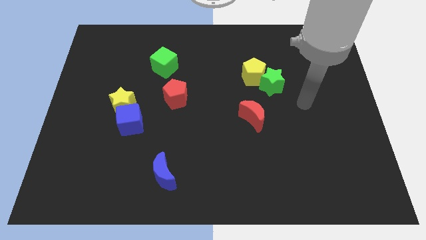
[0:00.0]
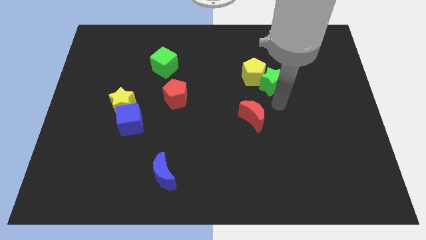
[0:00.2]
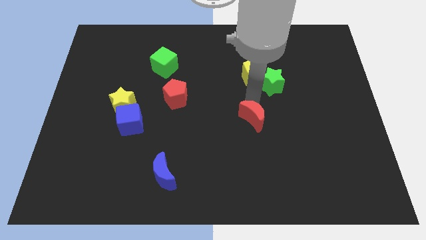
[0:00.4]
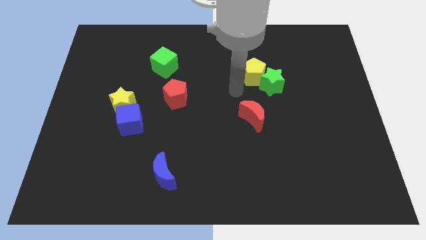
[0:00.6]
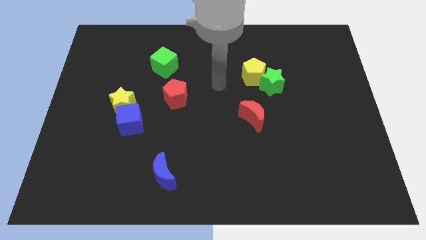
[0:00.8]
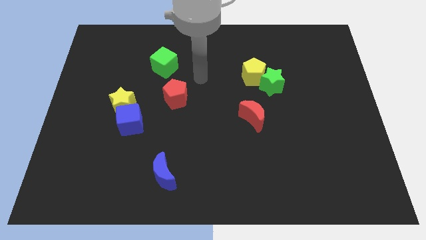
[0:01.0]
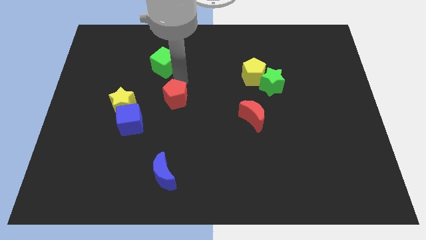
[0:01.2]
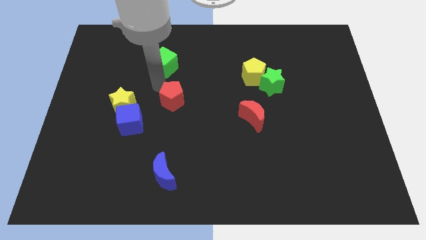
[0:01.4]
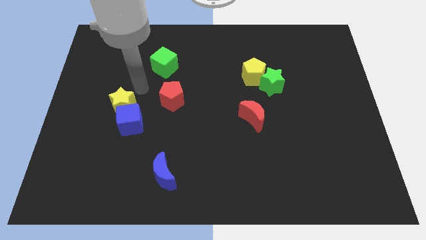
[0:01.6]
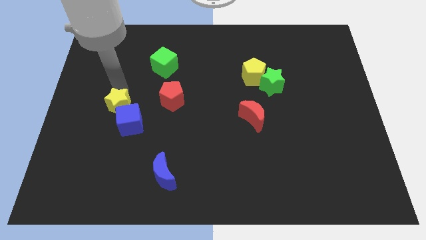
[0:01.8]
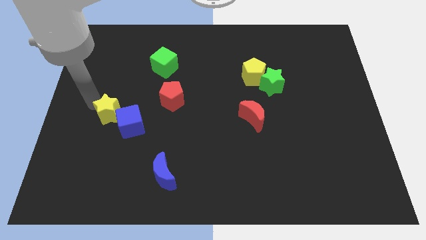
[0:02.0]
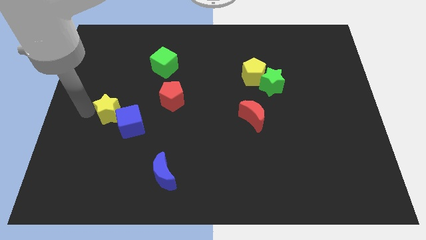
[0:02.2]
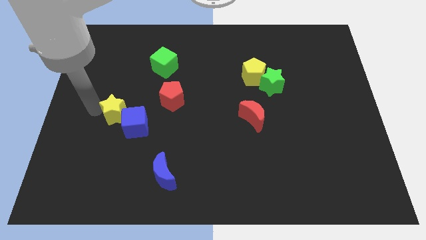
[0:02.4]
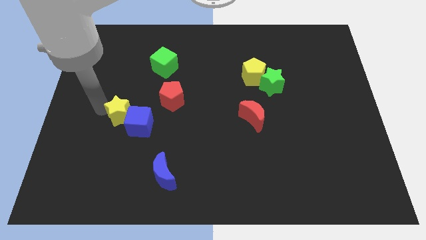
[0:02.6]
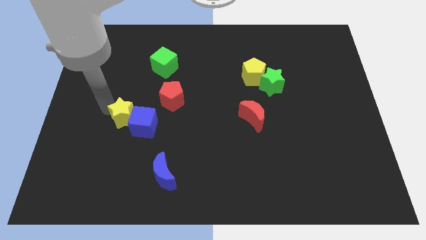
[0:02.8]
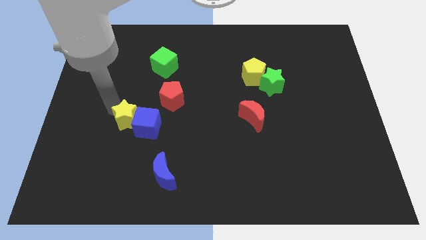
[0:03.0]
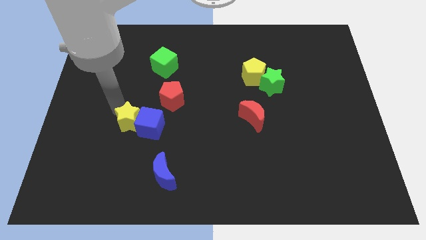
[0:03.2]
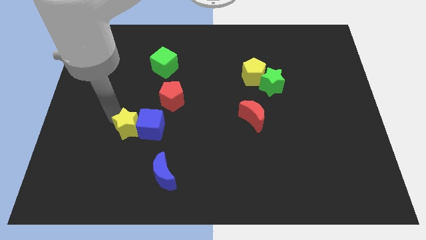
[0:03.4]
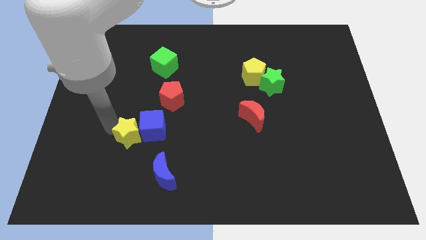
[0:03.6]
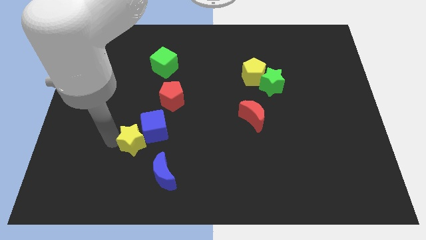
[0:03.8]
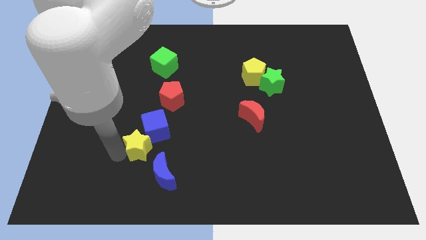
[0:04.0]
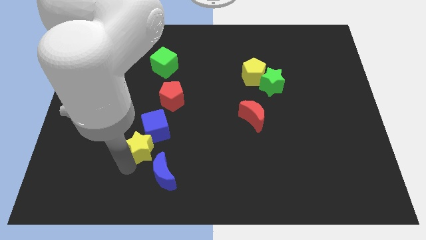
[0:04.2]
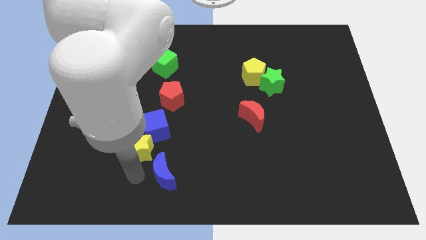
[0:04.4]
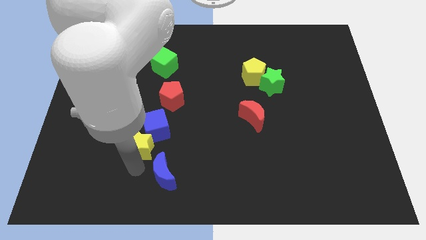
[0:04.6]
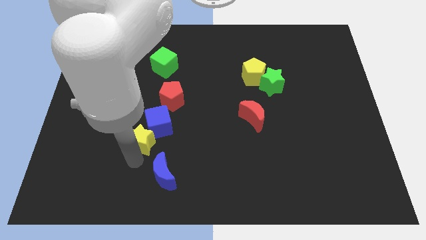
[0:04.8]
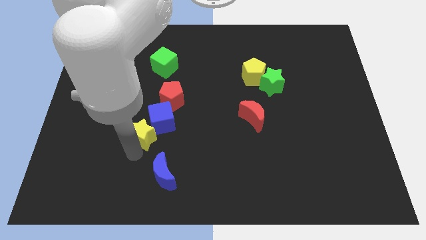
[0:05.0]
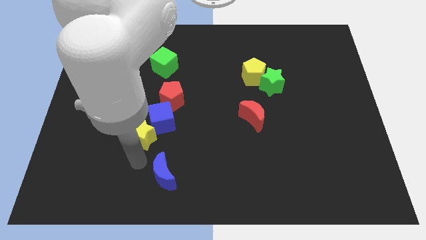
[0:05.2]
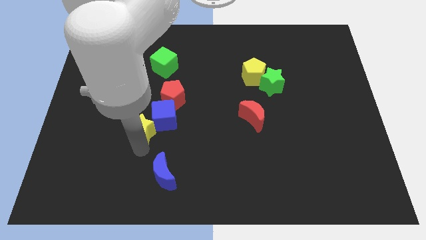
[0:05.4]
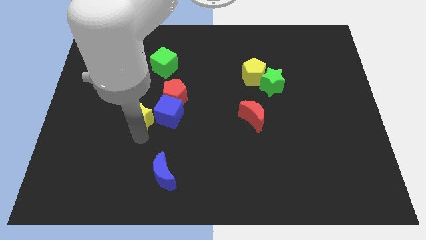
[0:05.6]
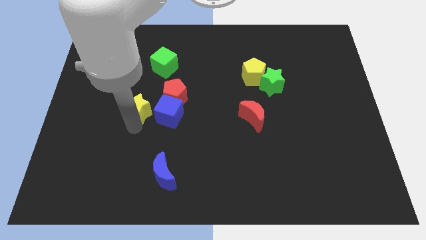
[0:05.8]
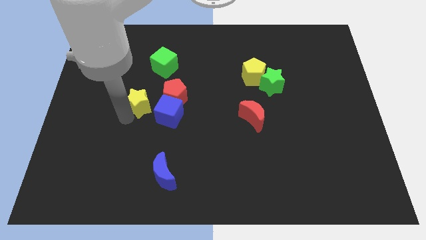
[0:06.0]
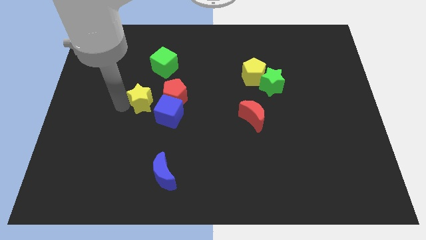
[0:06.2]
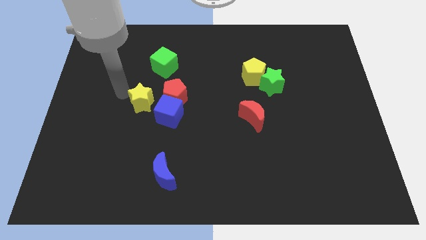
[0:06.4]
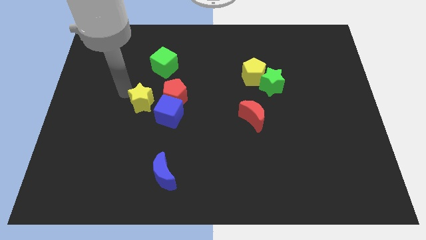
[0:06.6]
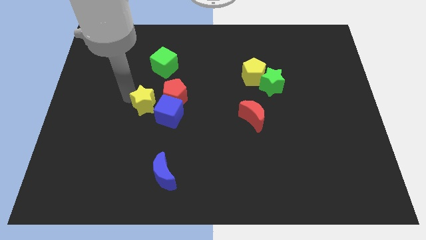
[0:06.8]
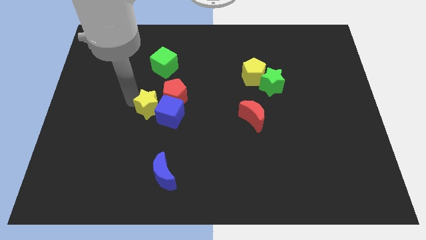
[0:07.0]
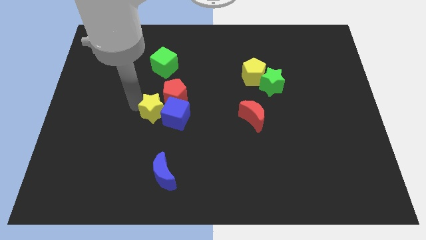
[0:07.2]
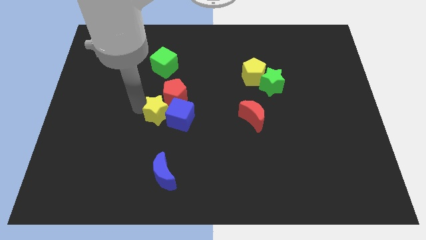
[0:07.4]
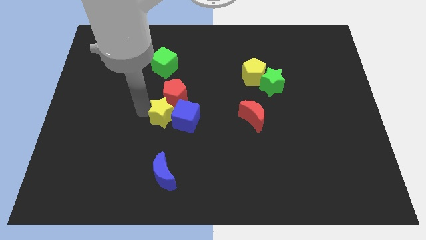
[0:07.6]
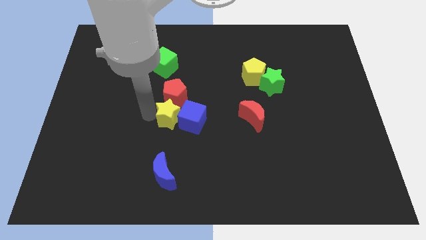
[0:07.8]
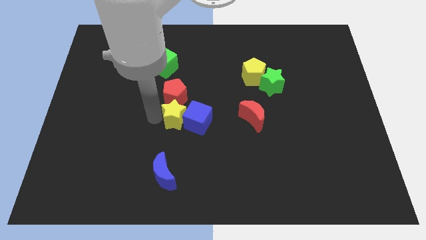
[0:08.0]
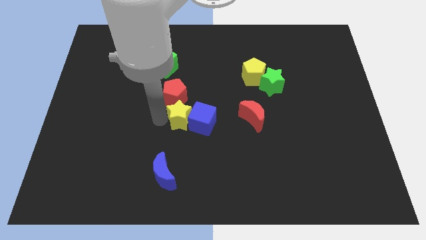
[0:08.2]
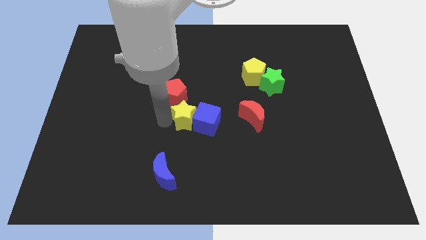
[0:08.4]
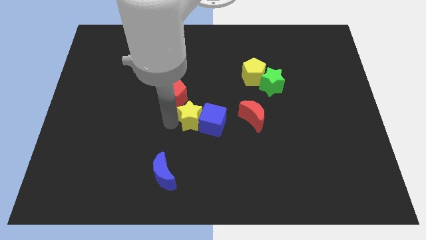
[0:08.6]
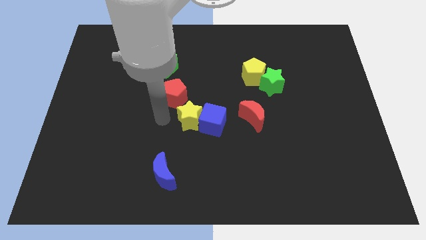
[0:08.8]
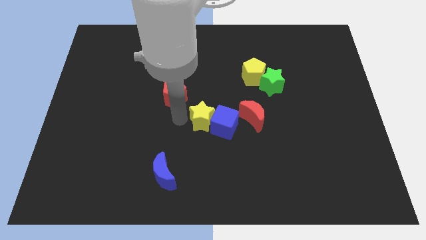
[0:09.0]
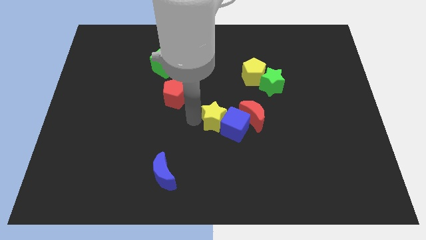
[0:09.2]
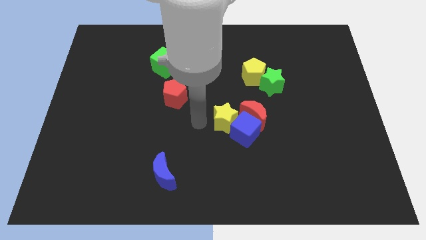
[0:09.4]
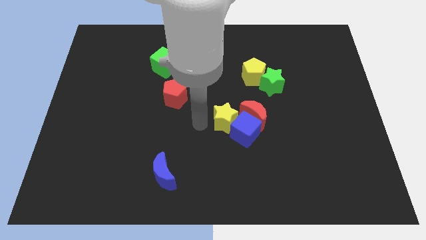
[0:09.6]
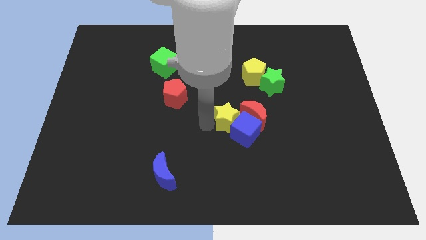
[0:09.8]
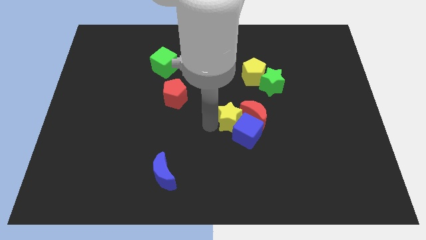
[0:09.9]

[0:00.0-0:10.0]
move the yellow star close to the red moon

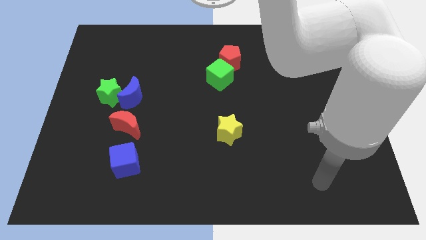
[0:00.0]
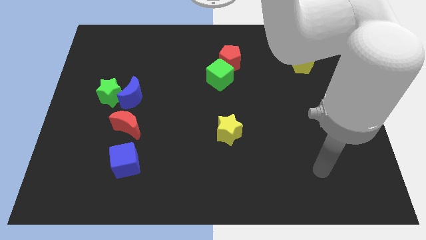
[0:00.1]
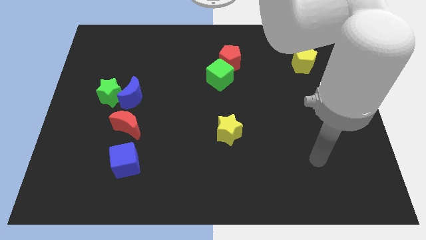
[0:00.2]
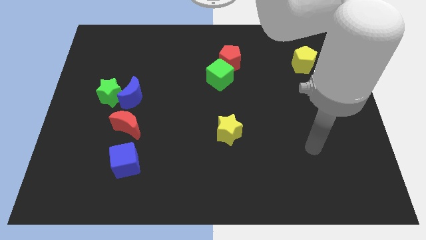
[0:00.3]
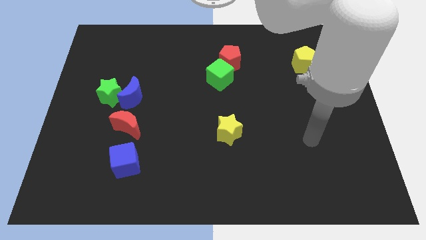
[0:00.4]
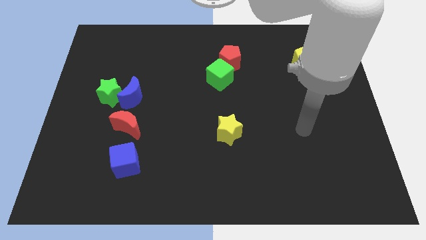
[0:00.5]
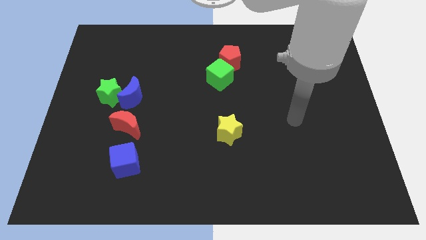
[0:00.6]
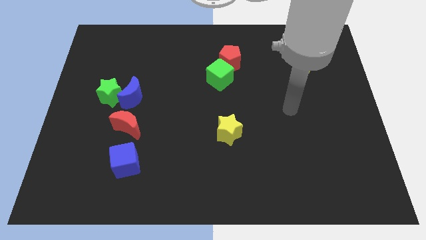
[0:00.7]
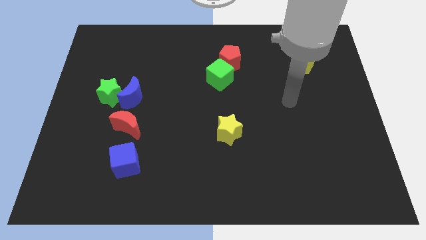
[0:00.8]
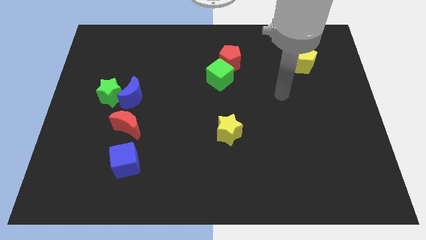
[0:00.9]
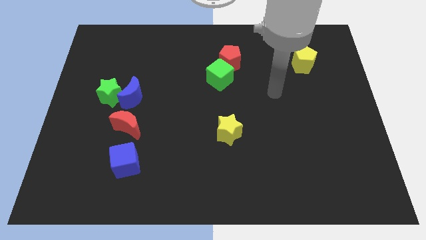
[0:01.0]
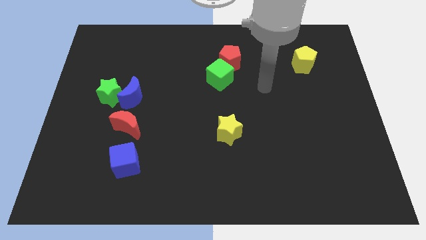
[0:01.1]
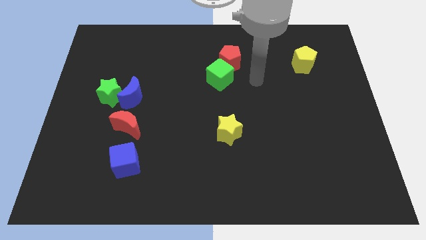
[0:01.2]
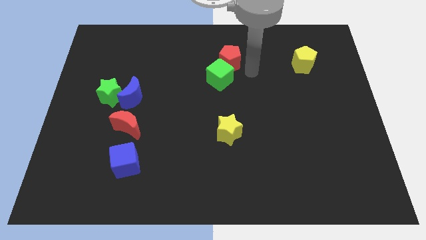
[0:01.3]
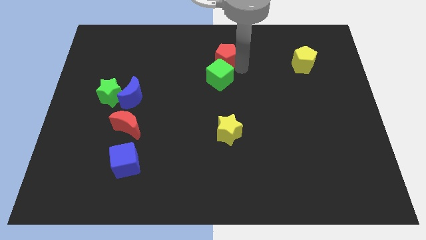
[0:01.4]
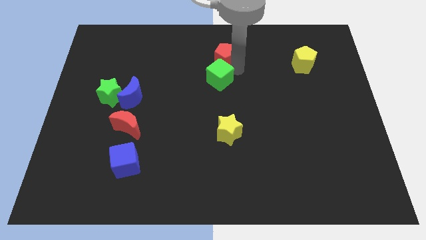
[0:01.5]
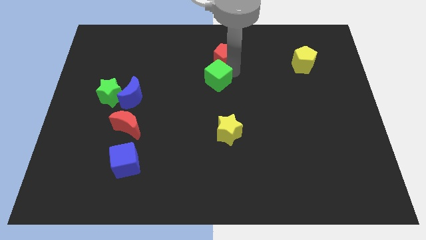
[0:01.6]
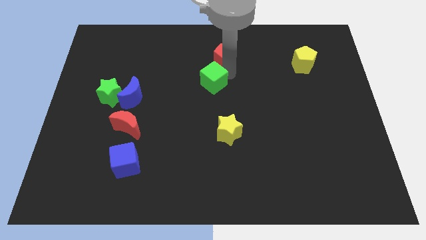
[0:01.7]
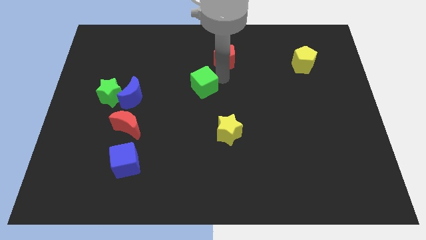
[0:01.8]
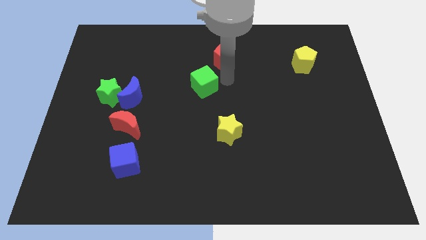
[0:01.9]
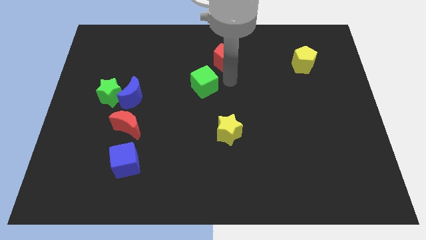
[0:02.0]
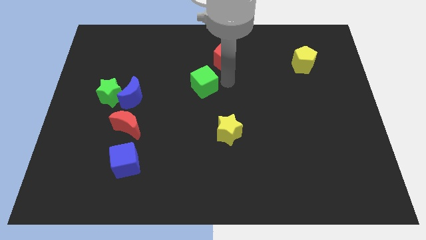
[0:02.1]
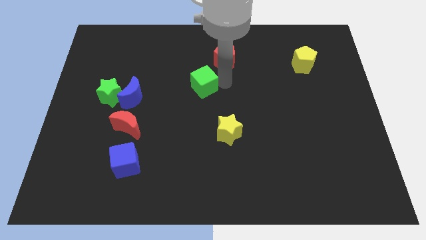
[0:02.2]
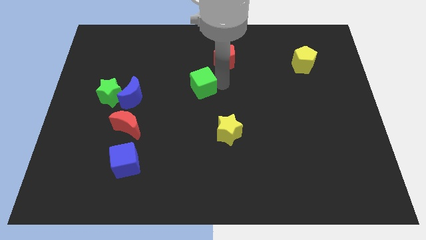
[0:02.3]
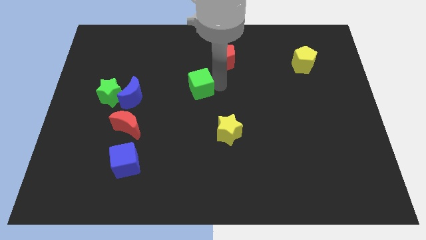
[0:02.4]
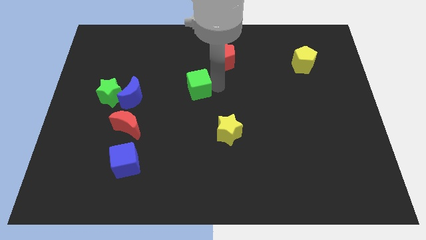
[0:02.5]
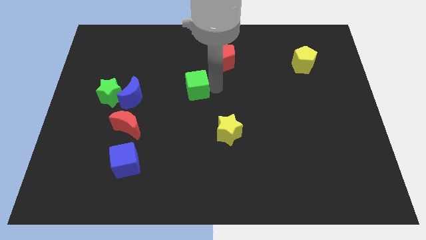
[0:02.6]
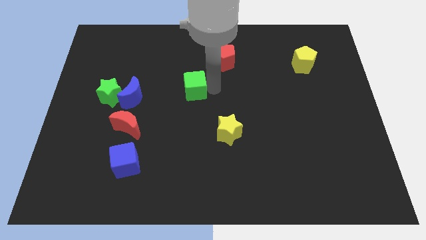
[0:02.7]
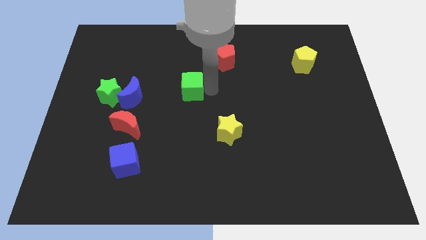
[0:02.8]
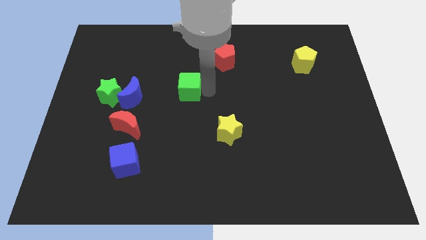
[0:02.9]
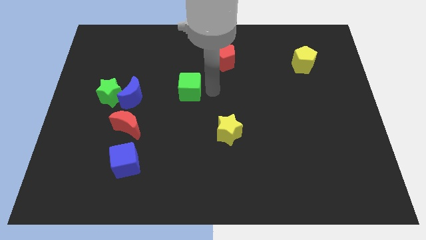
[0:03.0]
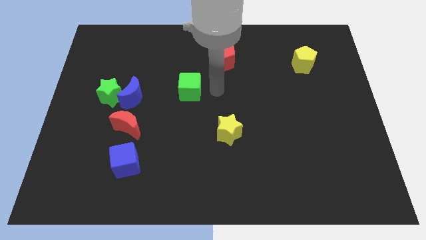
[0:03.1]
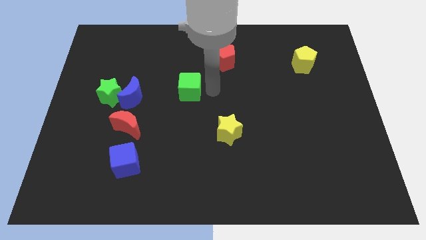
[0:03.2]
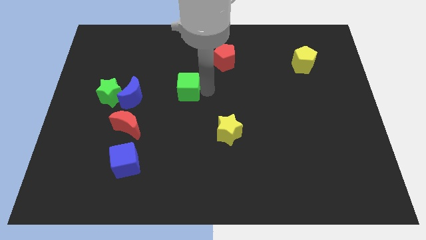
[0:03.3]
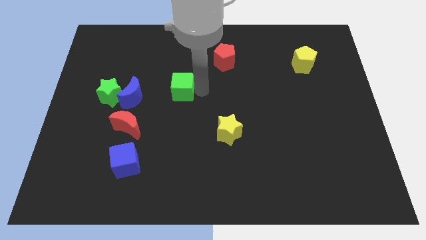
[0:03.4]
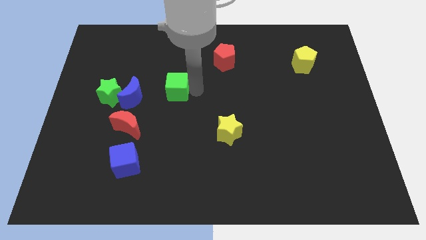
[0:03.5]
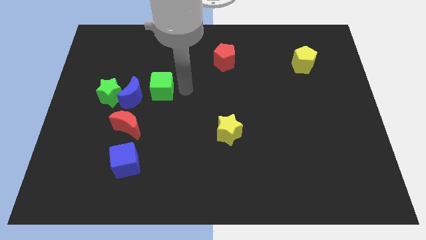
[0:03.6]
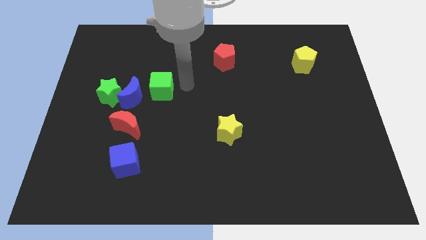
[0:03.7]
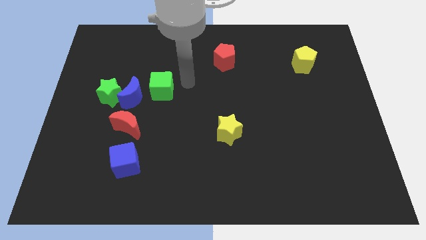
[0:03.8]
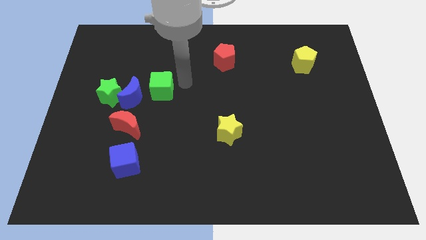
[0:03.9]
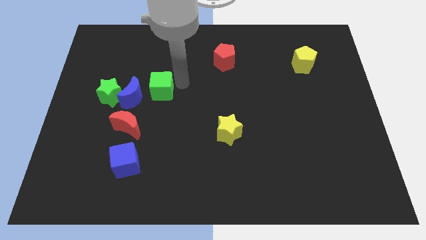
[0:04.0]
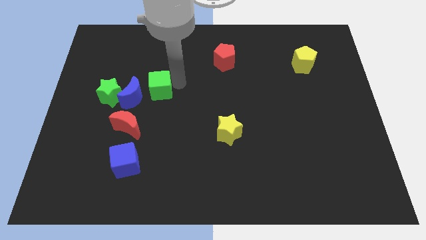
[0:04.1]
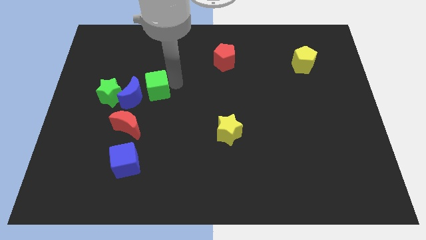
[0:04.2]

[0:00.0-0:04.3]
push the green cube towards the blue moon
